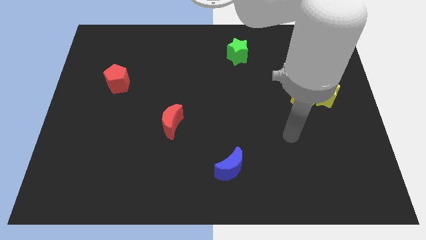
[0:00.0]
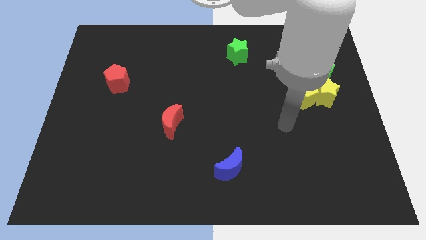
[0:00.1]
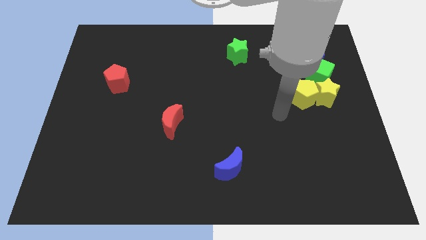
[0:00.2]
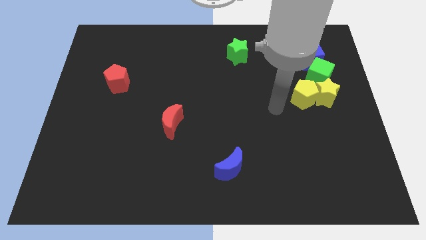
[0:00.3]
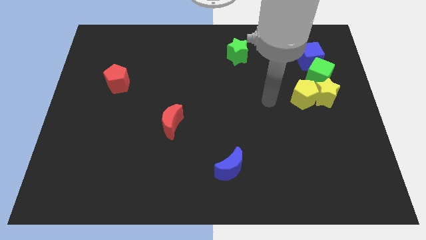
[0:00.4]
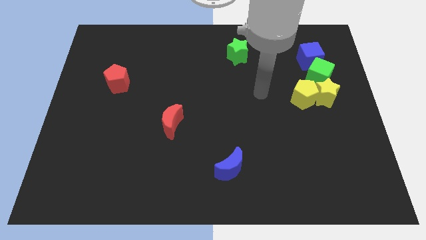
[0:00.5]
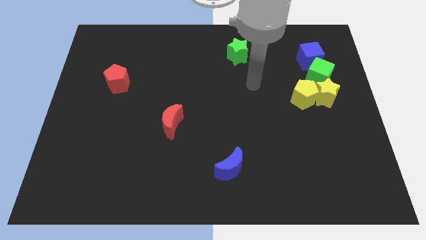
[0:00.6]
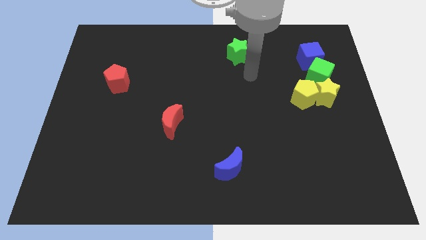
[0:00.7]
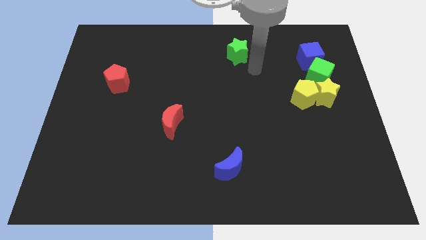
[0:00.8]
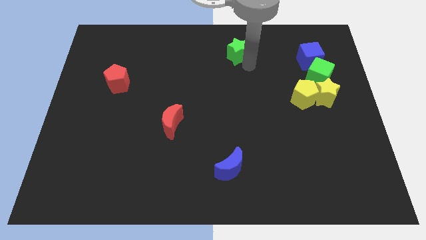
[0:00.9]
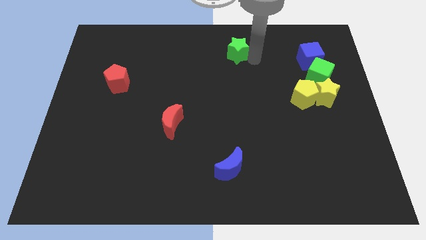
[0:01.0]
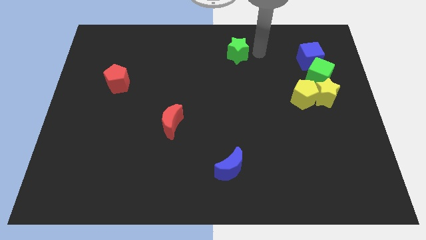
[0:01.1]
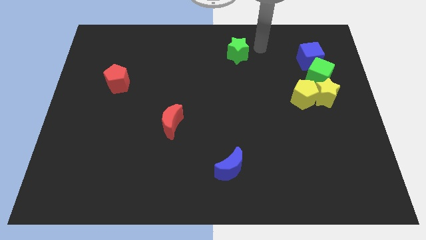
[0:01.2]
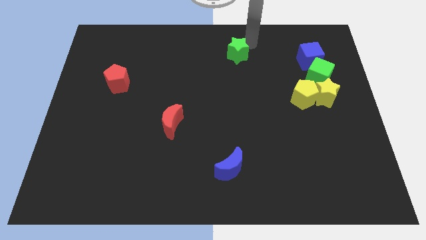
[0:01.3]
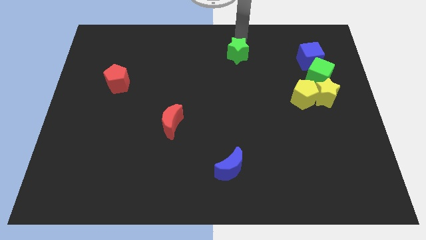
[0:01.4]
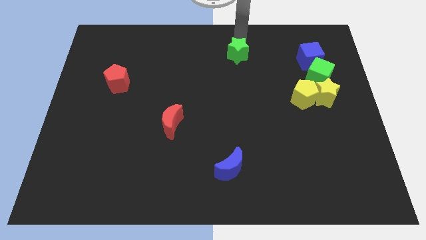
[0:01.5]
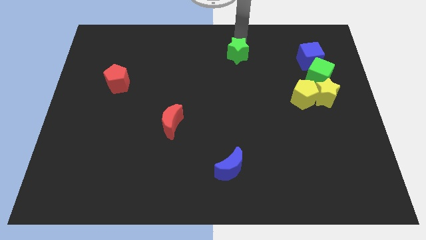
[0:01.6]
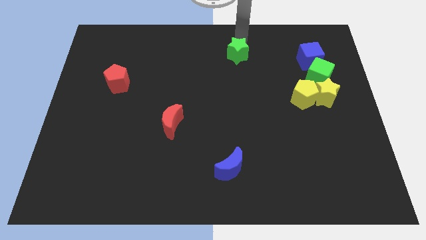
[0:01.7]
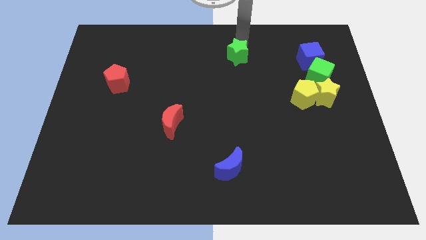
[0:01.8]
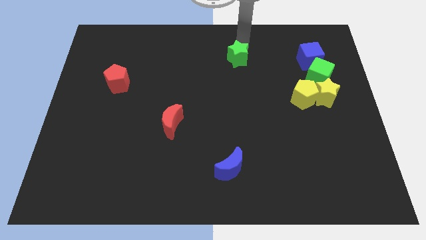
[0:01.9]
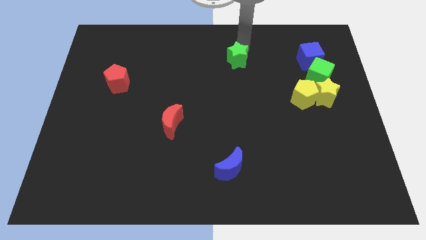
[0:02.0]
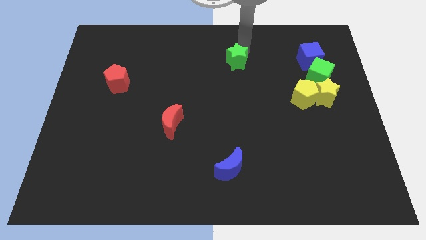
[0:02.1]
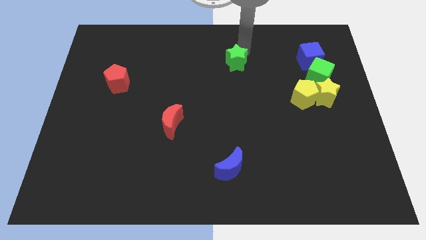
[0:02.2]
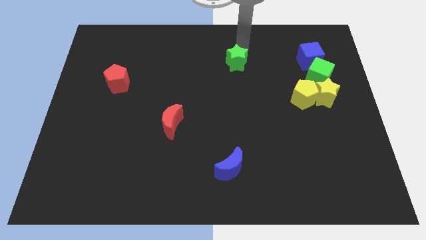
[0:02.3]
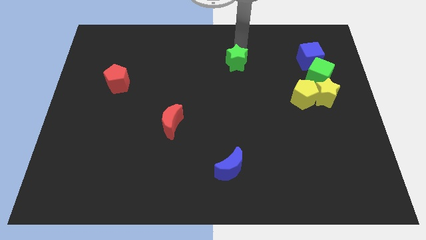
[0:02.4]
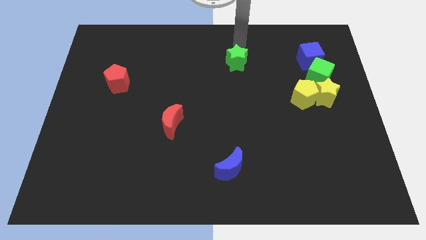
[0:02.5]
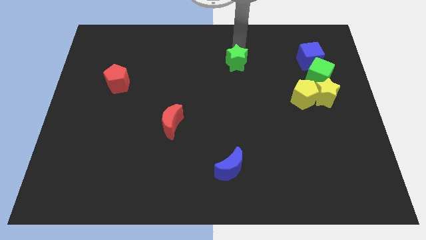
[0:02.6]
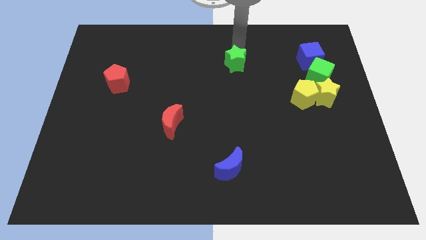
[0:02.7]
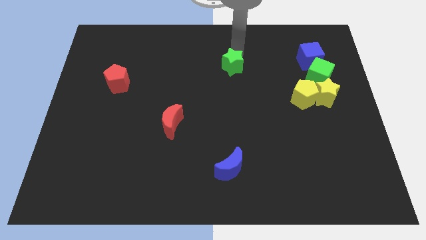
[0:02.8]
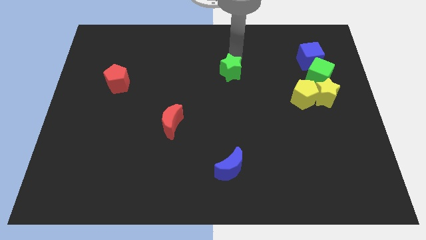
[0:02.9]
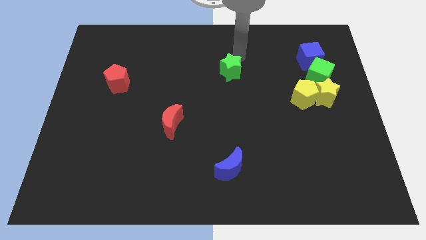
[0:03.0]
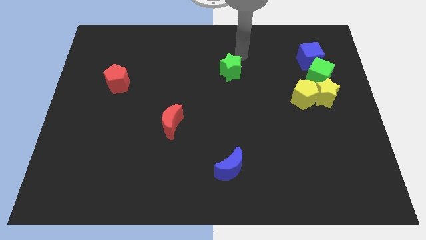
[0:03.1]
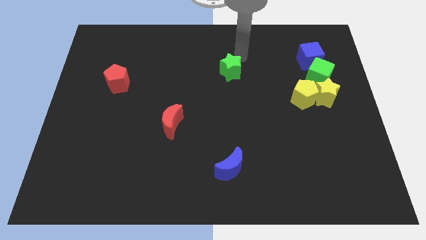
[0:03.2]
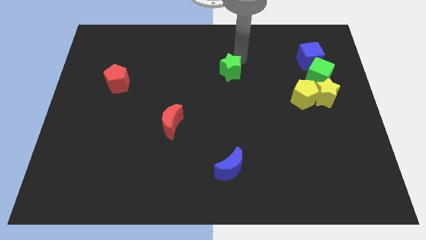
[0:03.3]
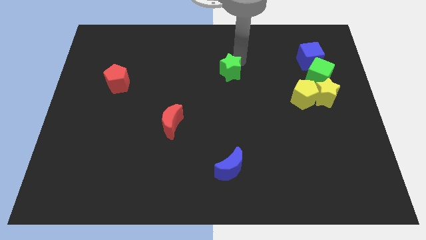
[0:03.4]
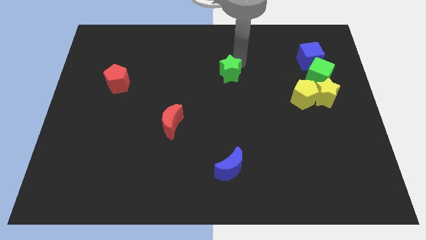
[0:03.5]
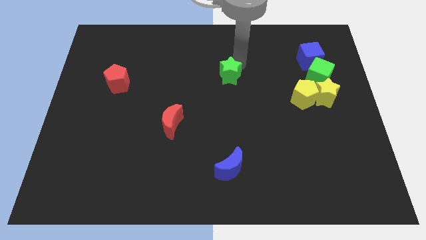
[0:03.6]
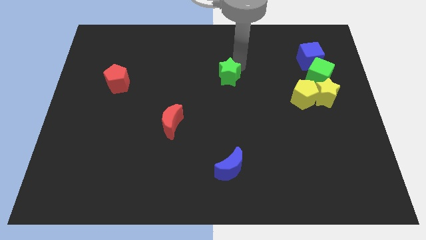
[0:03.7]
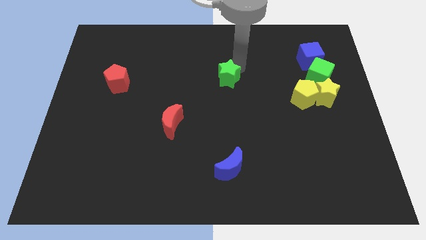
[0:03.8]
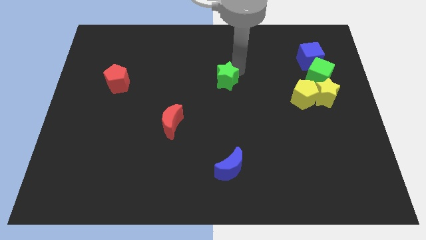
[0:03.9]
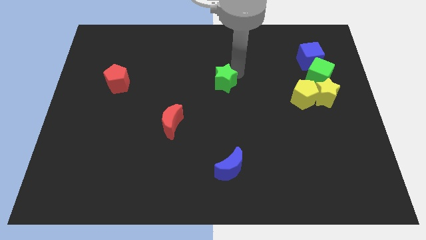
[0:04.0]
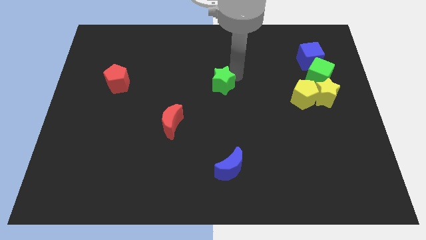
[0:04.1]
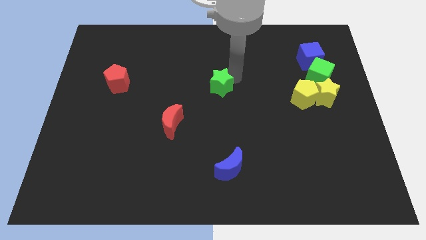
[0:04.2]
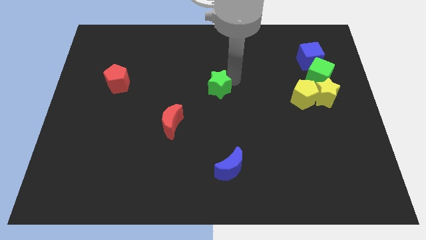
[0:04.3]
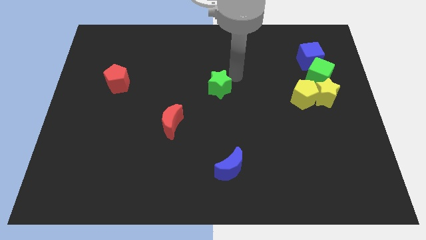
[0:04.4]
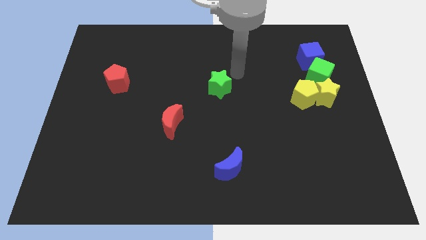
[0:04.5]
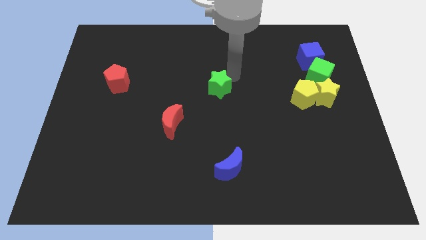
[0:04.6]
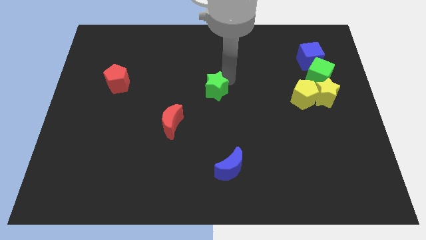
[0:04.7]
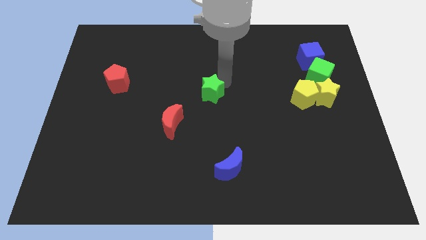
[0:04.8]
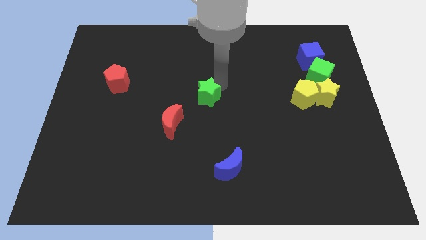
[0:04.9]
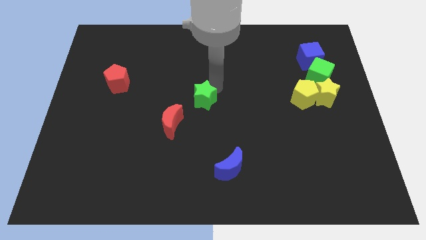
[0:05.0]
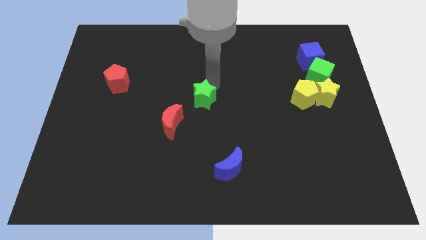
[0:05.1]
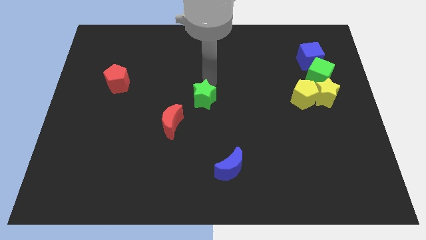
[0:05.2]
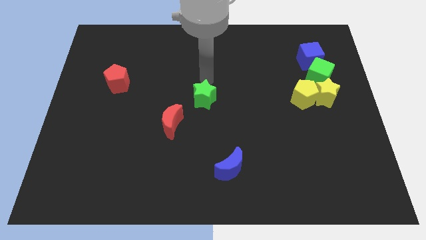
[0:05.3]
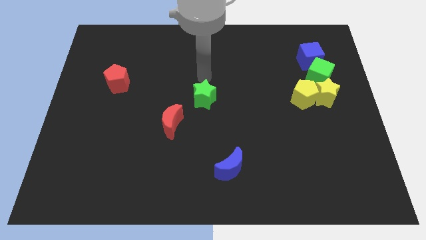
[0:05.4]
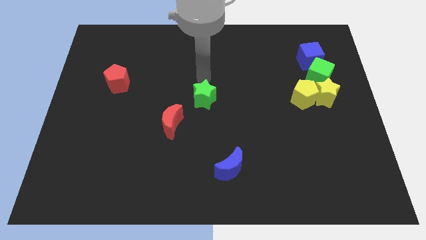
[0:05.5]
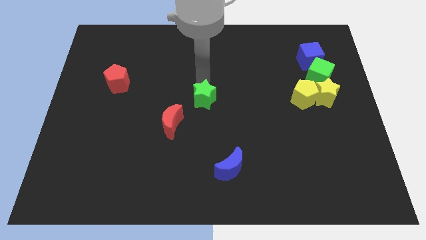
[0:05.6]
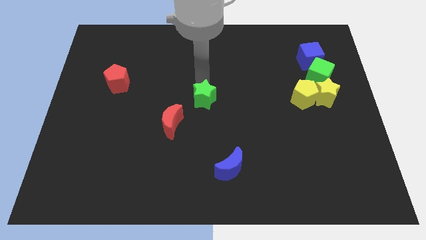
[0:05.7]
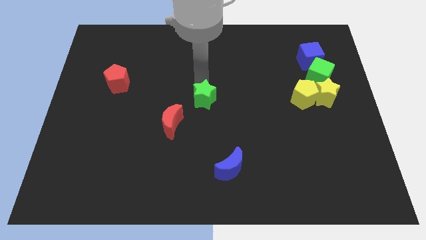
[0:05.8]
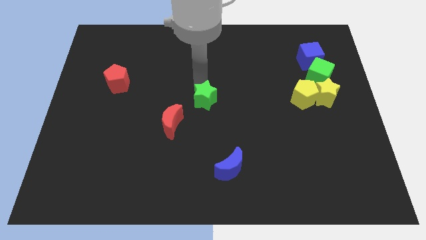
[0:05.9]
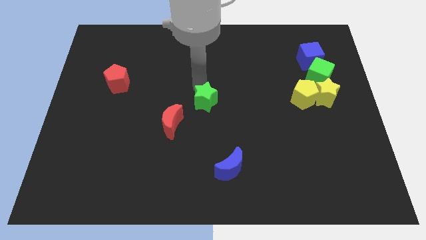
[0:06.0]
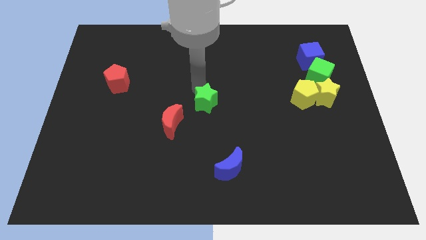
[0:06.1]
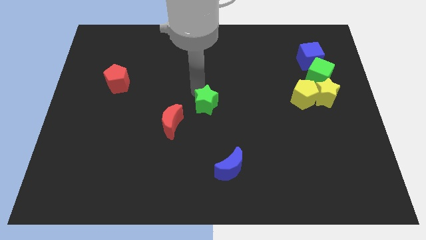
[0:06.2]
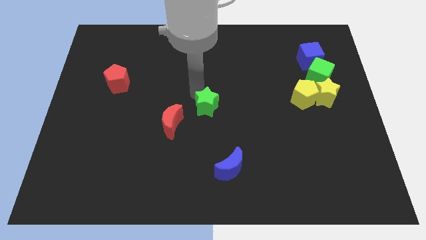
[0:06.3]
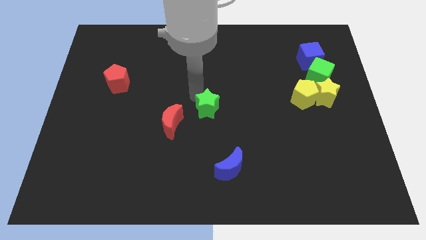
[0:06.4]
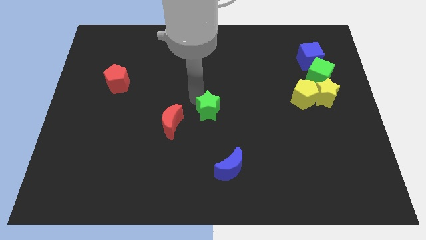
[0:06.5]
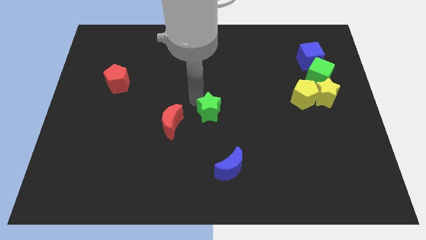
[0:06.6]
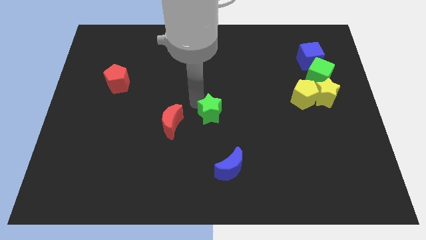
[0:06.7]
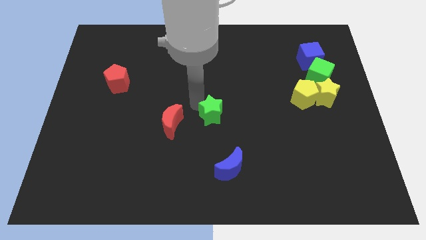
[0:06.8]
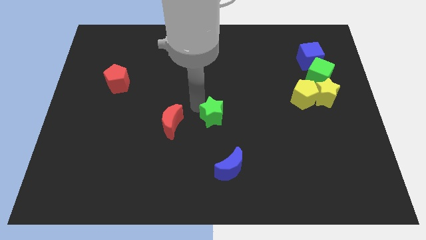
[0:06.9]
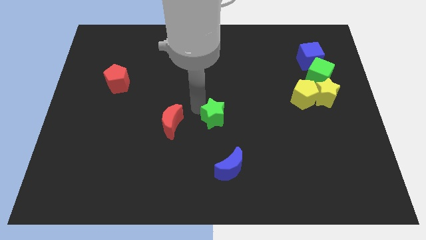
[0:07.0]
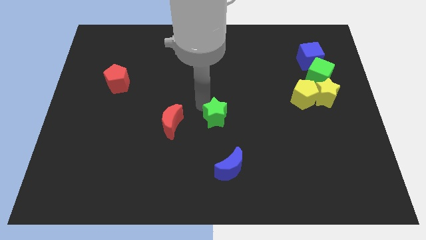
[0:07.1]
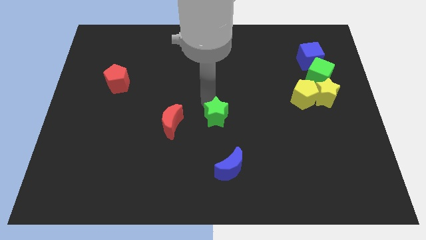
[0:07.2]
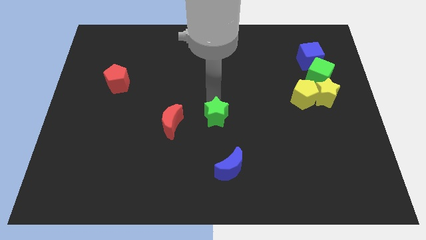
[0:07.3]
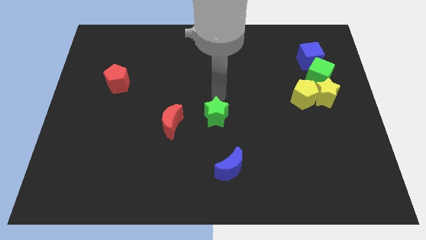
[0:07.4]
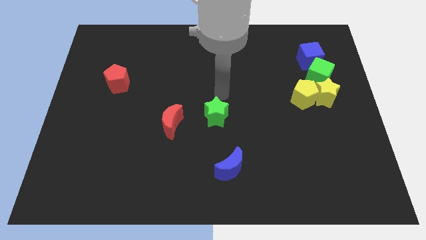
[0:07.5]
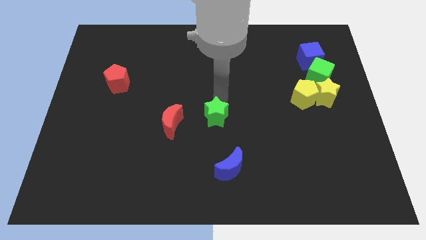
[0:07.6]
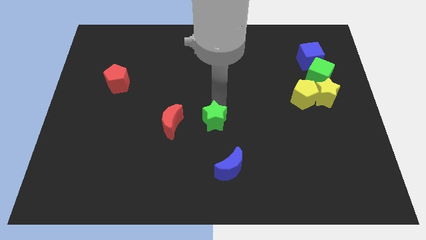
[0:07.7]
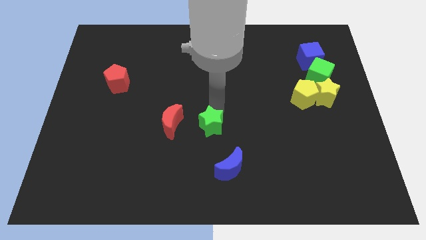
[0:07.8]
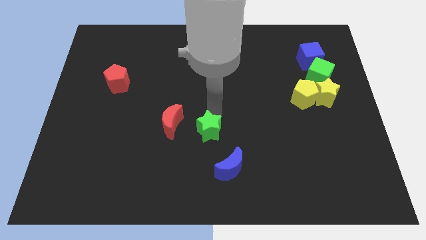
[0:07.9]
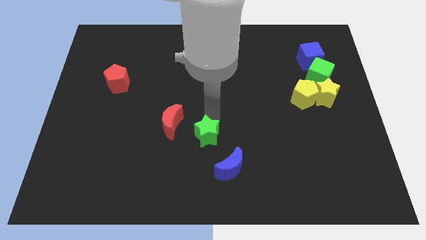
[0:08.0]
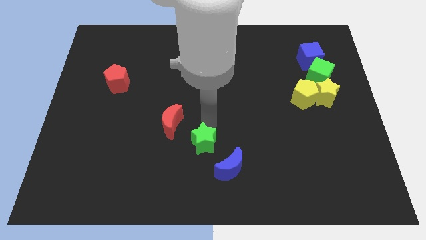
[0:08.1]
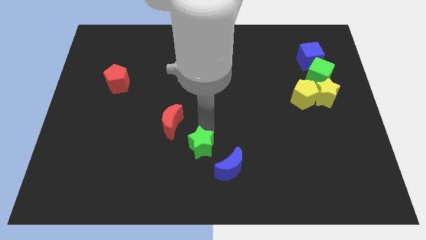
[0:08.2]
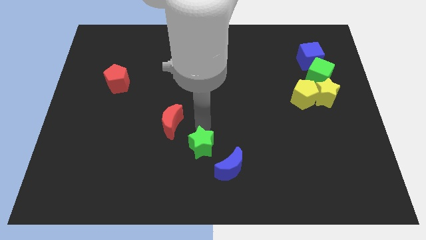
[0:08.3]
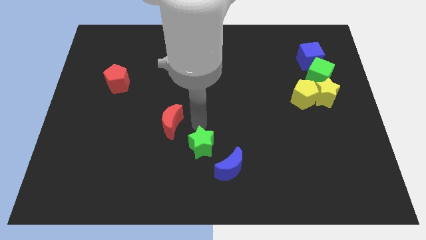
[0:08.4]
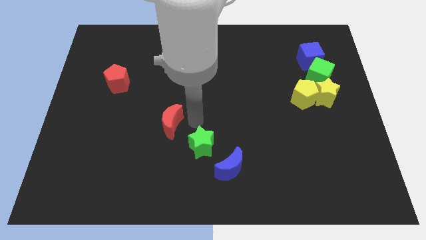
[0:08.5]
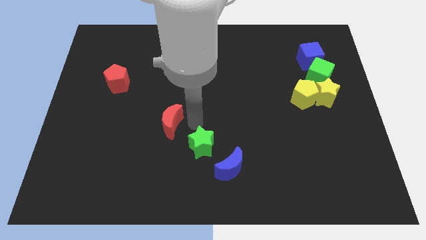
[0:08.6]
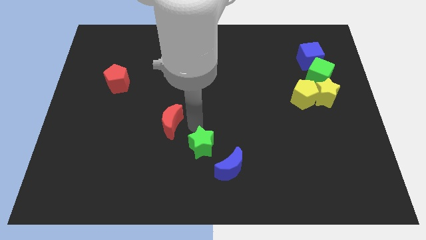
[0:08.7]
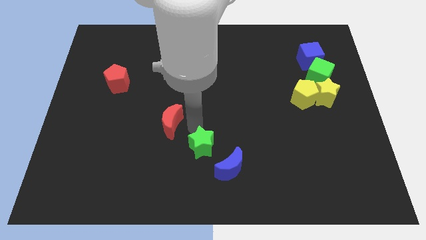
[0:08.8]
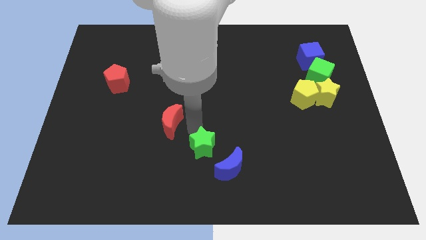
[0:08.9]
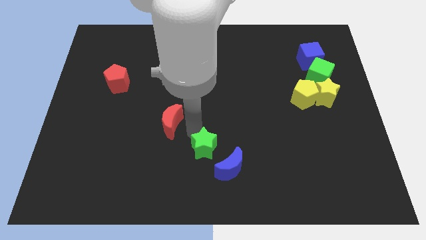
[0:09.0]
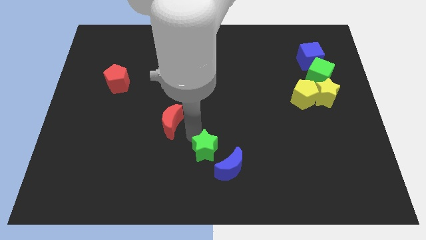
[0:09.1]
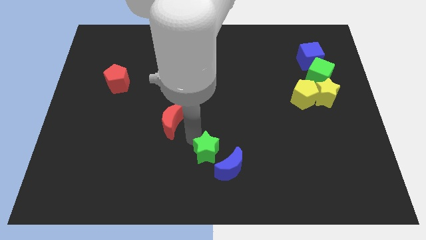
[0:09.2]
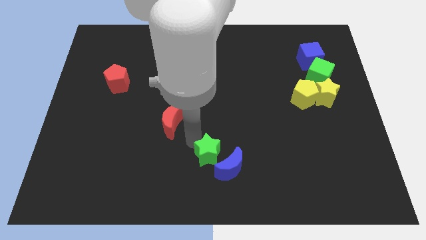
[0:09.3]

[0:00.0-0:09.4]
put the green star to the bottom
